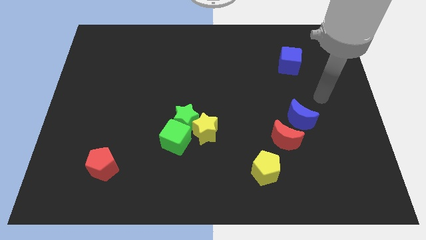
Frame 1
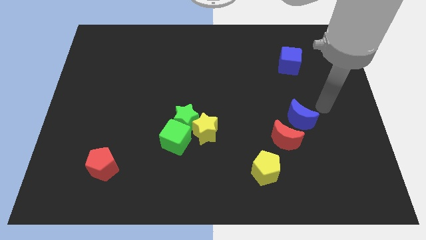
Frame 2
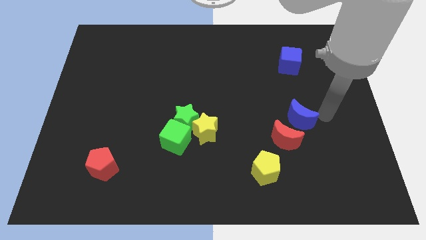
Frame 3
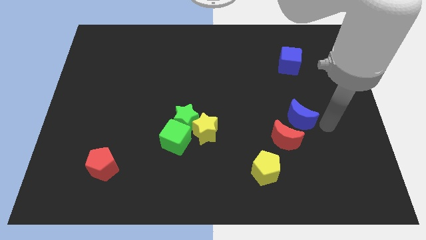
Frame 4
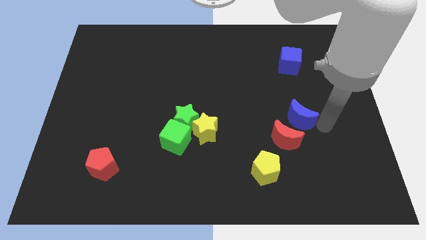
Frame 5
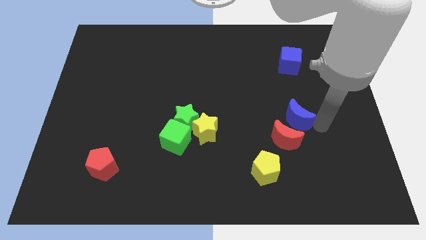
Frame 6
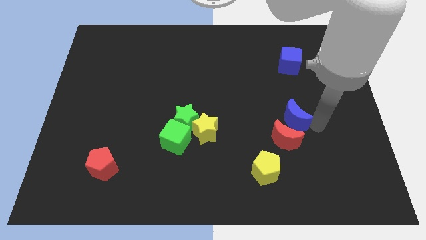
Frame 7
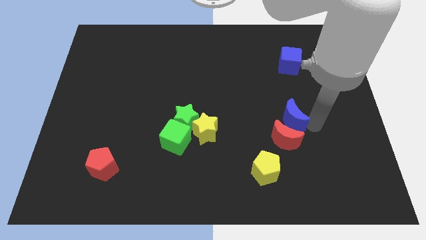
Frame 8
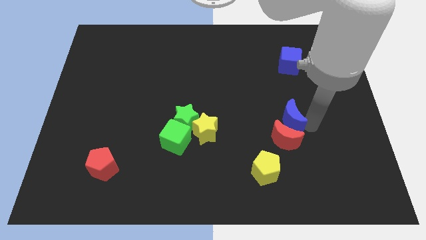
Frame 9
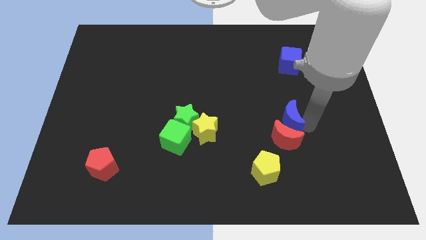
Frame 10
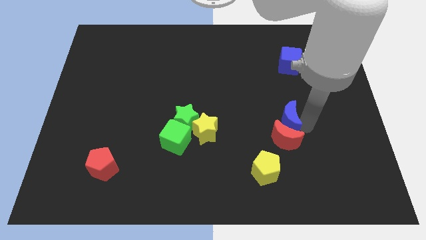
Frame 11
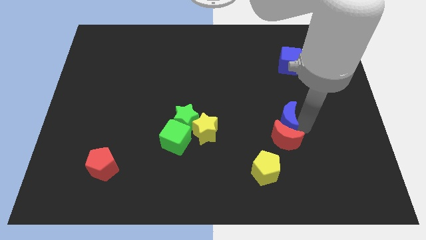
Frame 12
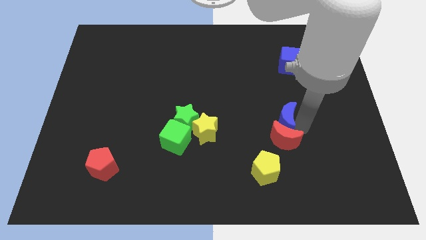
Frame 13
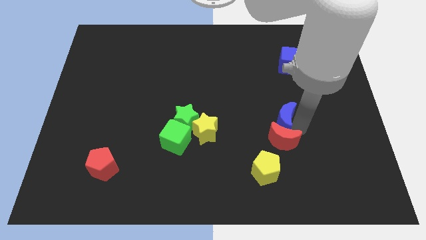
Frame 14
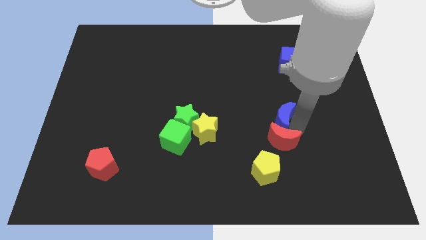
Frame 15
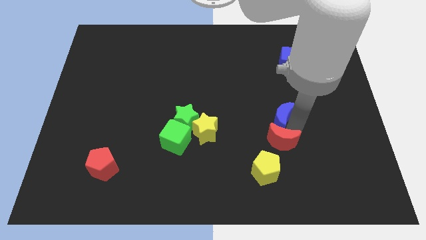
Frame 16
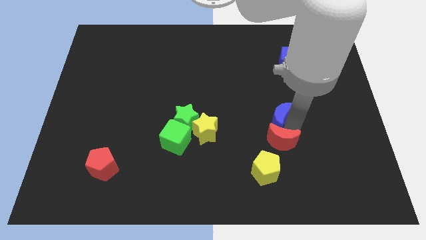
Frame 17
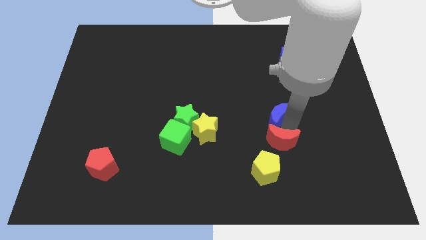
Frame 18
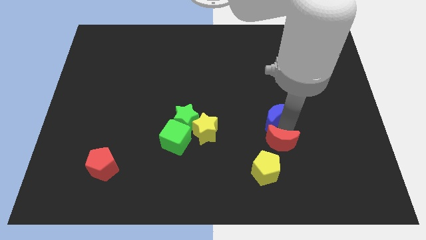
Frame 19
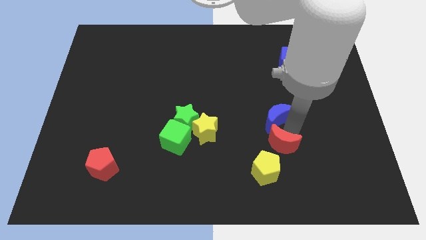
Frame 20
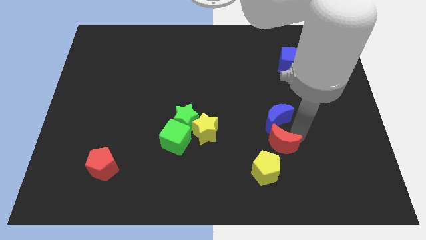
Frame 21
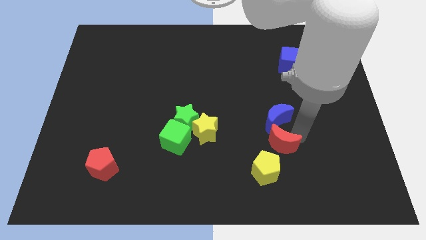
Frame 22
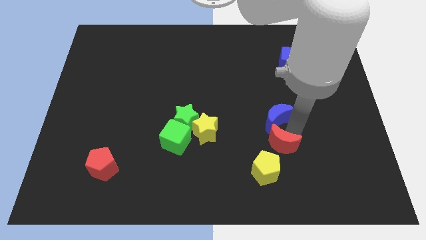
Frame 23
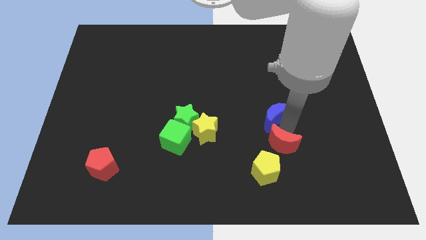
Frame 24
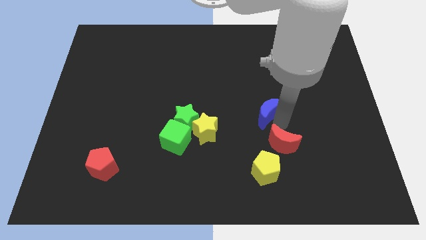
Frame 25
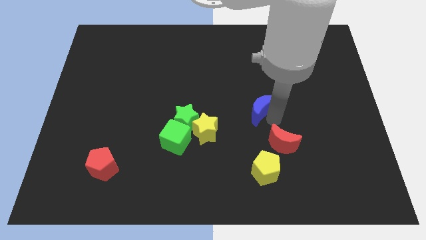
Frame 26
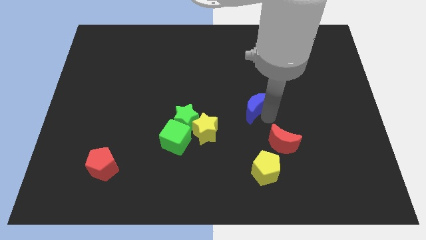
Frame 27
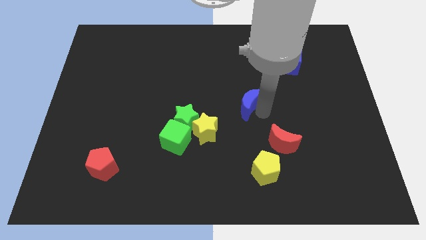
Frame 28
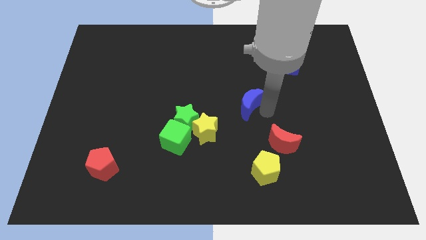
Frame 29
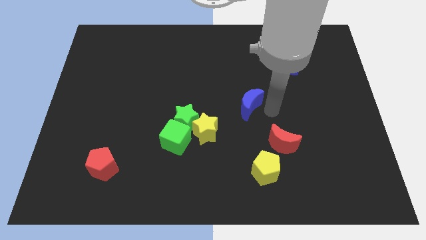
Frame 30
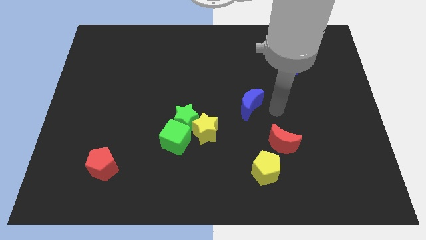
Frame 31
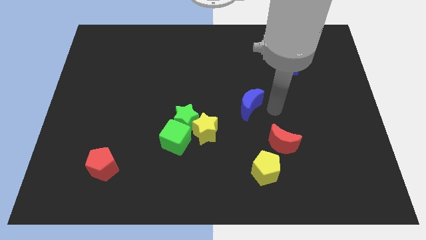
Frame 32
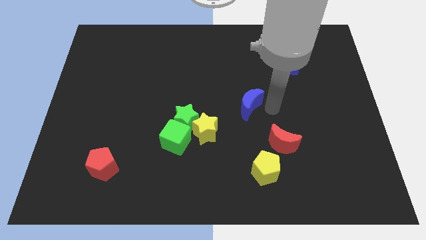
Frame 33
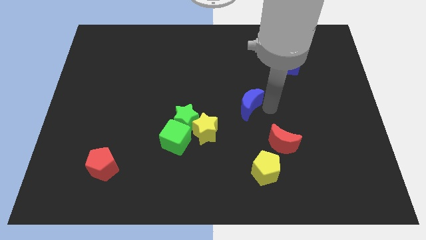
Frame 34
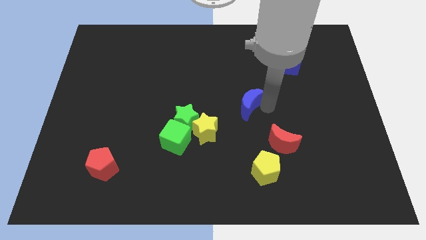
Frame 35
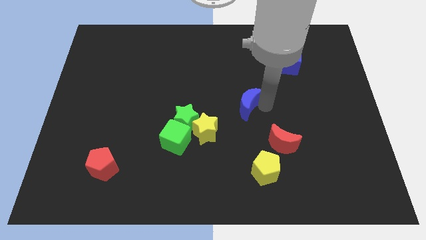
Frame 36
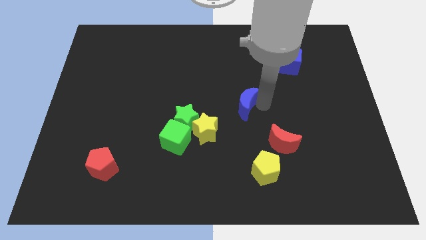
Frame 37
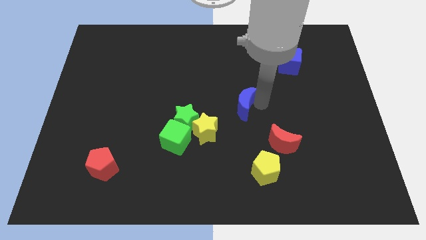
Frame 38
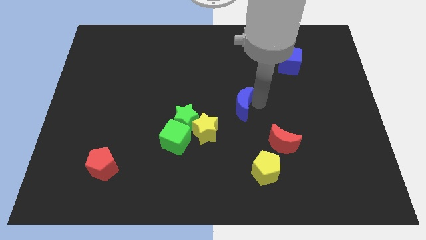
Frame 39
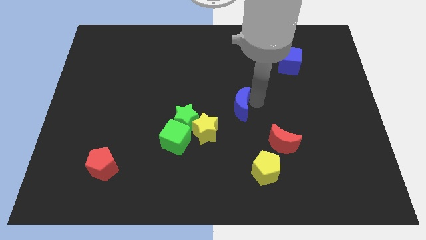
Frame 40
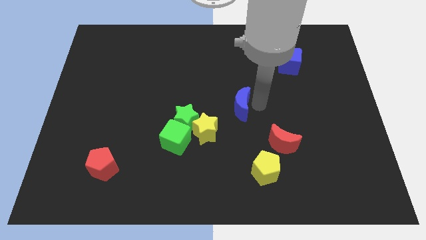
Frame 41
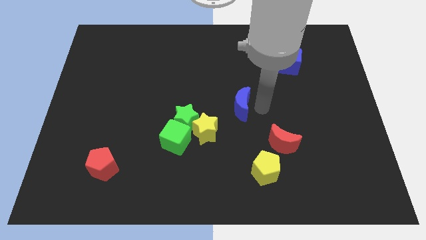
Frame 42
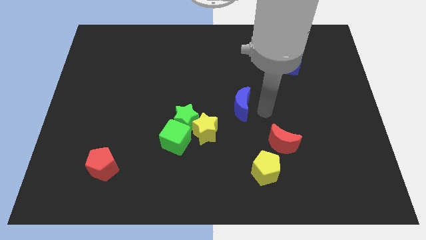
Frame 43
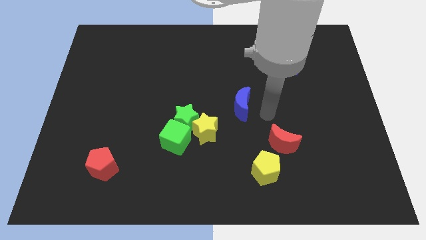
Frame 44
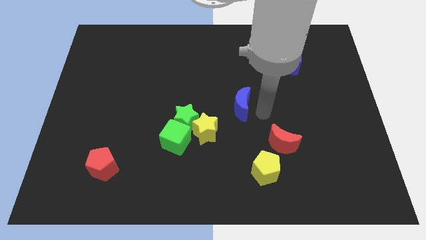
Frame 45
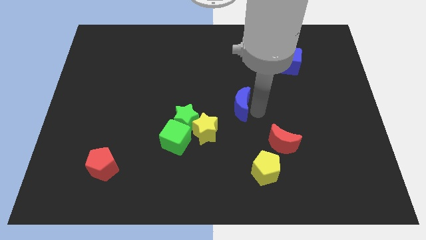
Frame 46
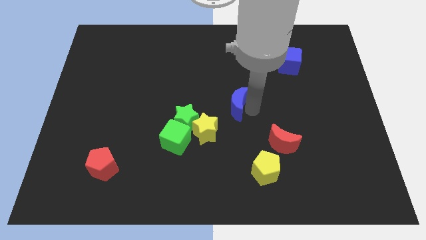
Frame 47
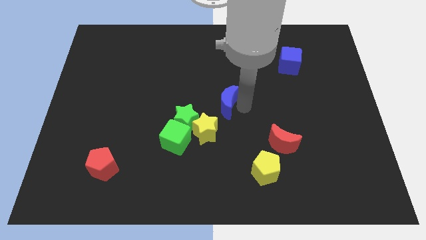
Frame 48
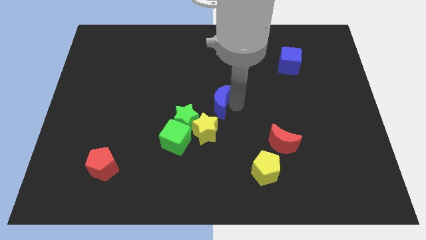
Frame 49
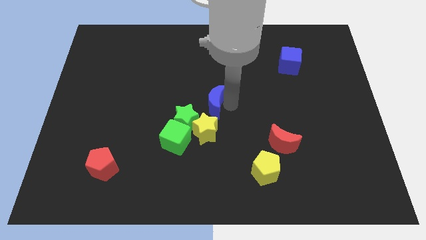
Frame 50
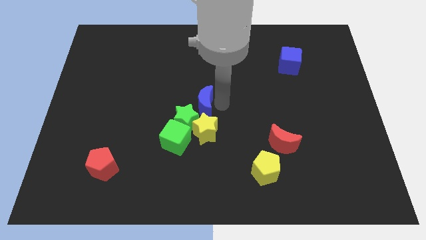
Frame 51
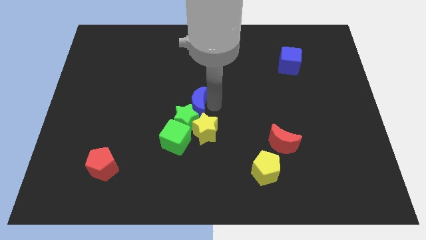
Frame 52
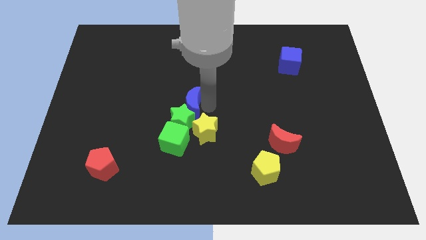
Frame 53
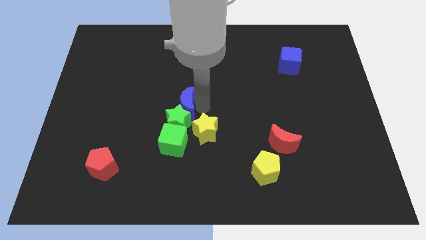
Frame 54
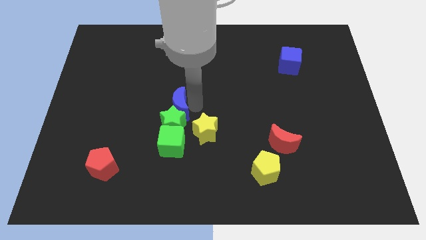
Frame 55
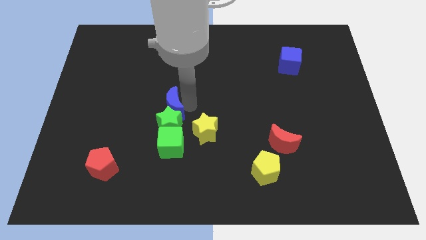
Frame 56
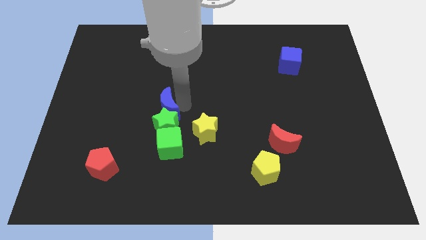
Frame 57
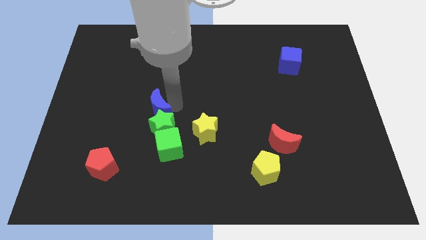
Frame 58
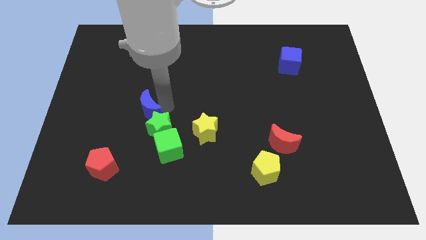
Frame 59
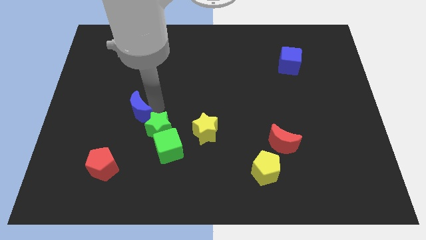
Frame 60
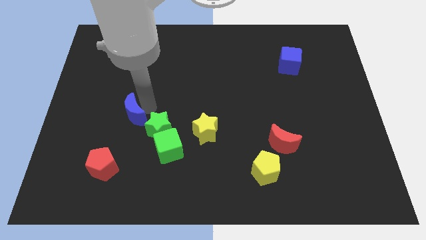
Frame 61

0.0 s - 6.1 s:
push the blue moon to the left side of the green star

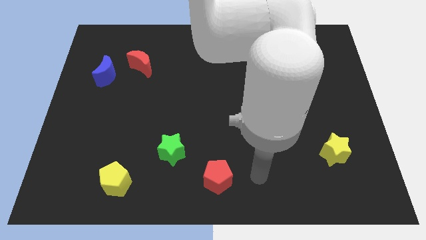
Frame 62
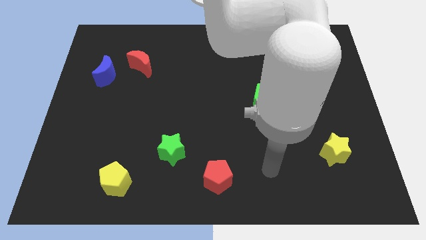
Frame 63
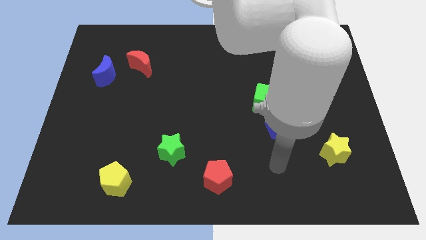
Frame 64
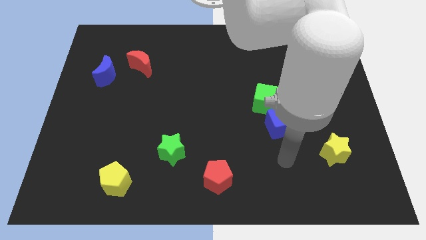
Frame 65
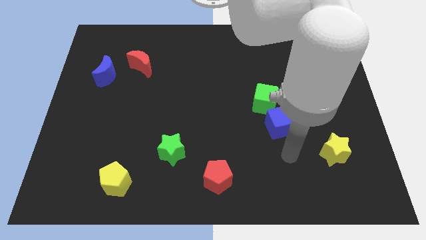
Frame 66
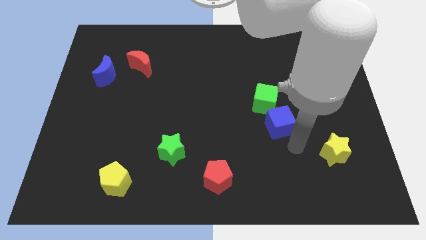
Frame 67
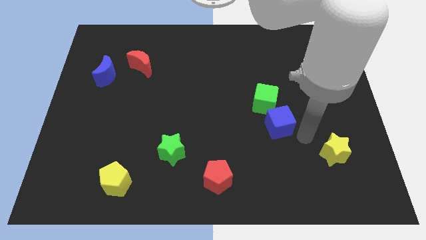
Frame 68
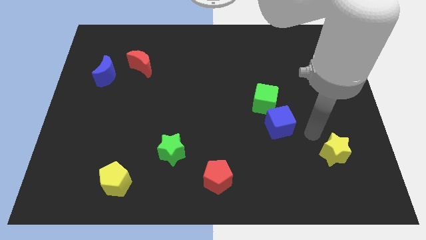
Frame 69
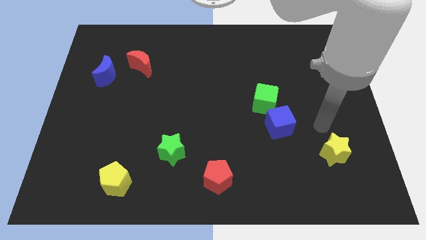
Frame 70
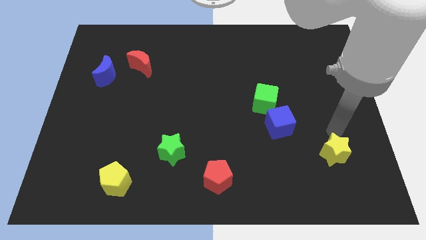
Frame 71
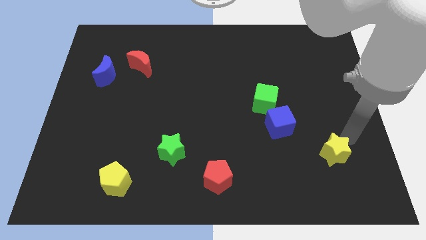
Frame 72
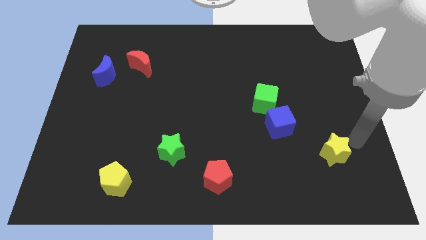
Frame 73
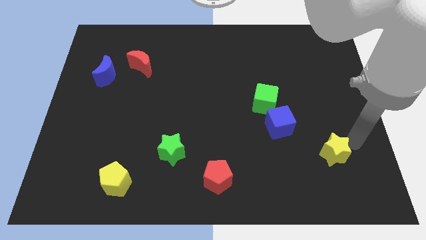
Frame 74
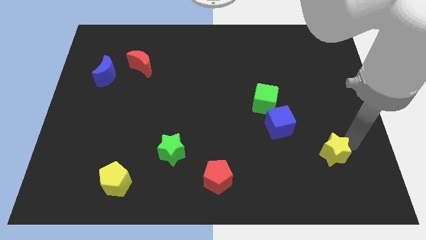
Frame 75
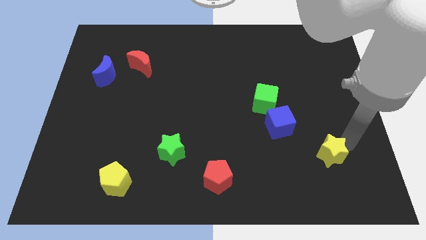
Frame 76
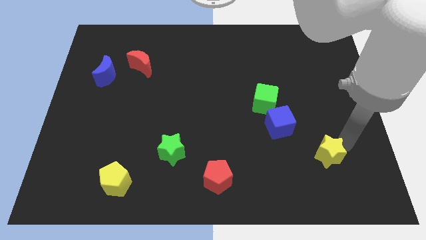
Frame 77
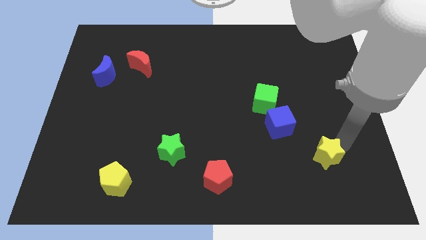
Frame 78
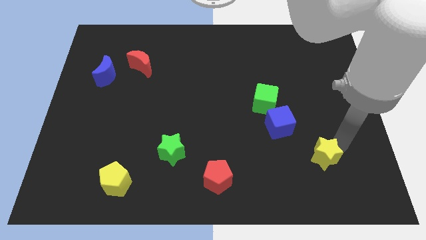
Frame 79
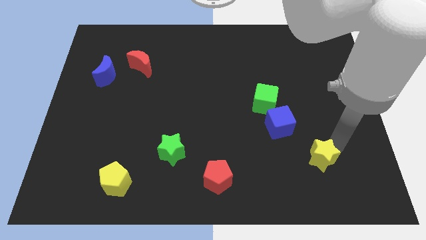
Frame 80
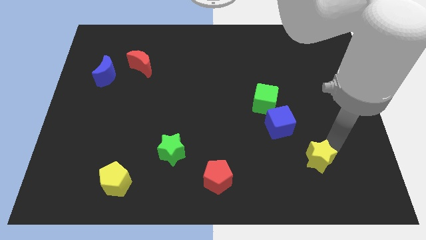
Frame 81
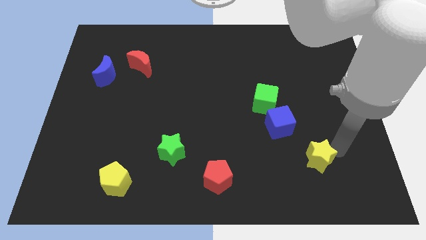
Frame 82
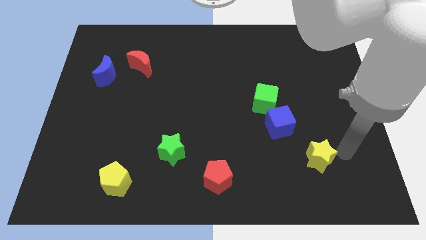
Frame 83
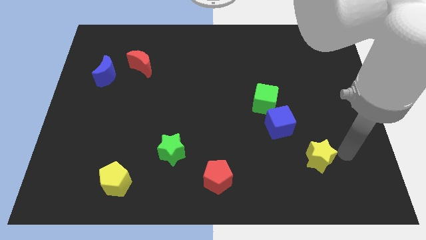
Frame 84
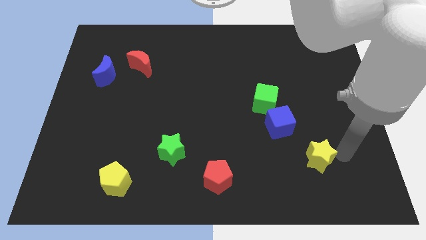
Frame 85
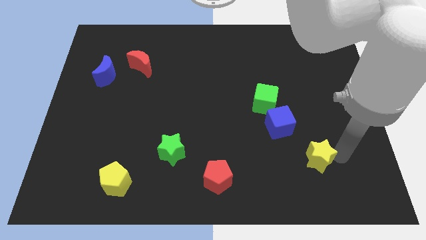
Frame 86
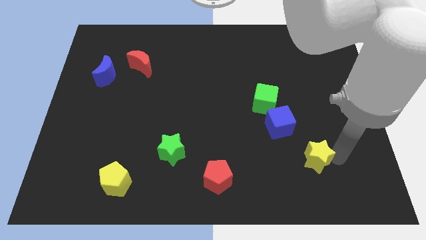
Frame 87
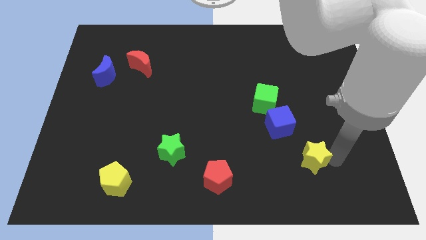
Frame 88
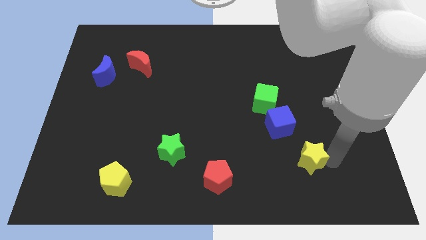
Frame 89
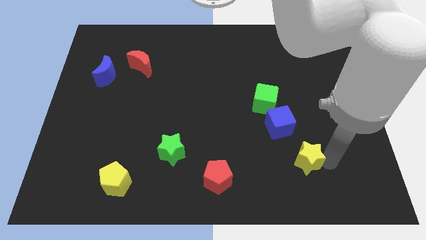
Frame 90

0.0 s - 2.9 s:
move the yellow star below the blue cube
